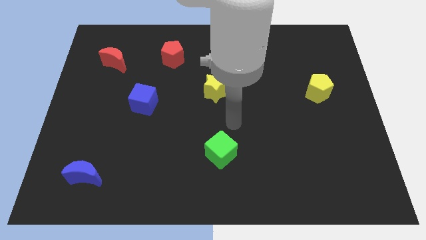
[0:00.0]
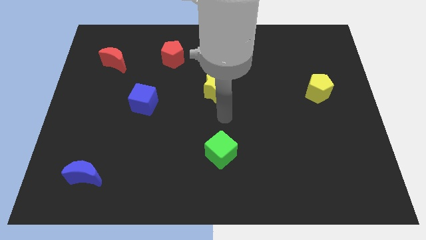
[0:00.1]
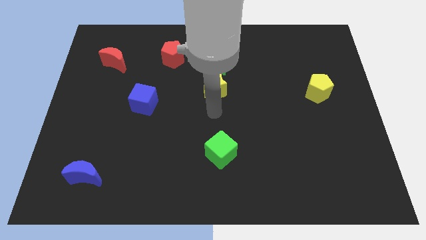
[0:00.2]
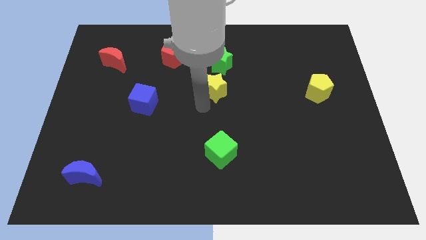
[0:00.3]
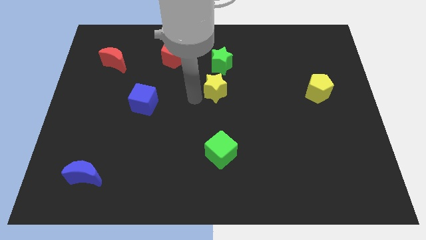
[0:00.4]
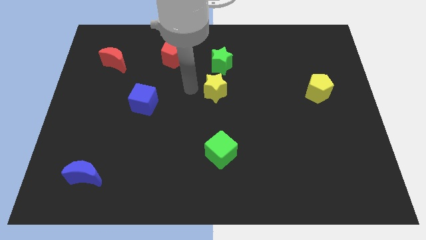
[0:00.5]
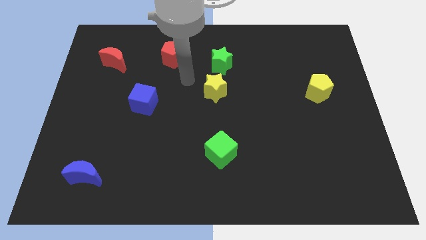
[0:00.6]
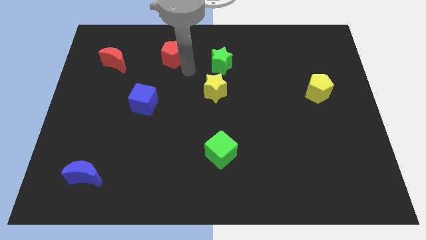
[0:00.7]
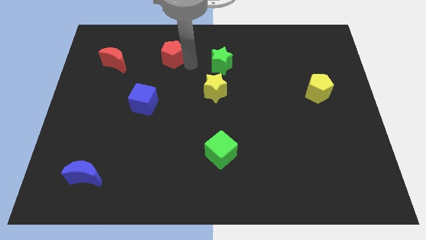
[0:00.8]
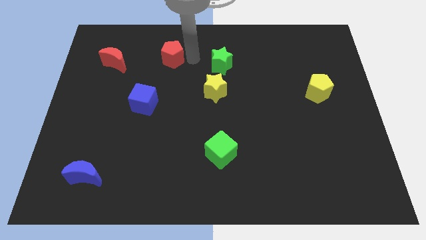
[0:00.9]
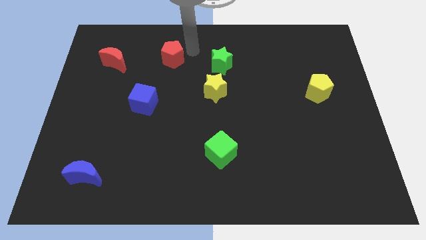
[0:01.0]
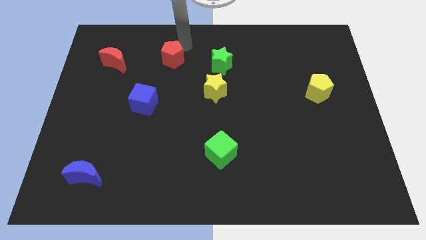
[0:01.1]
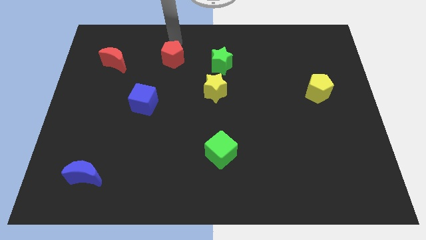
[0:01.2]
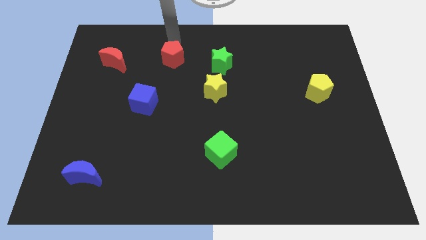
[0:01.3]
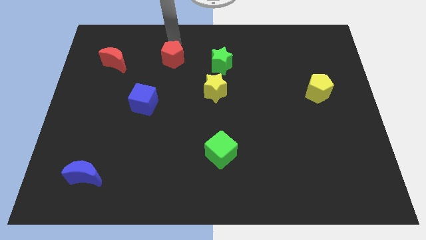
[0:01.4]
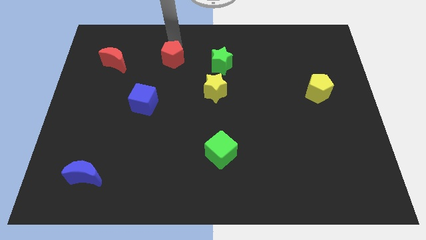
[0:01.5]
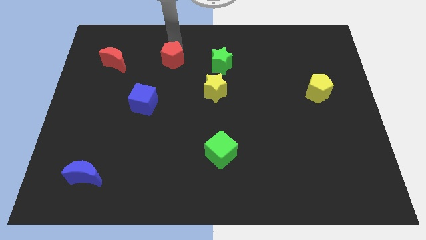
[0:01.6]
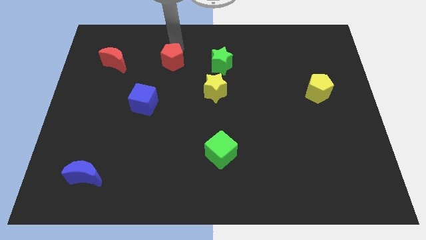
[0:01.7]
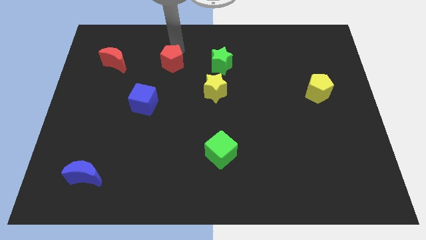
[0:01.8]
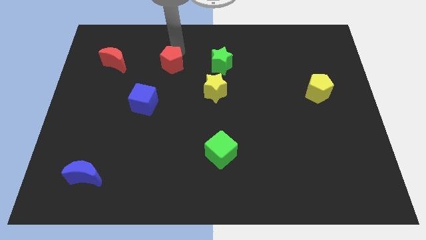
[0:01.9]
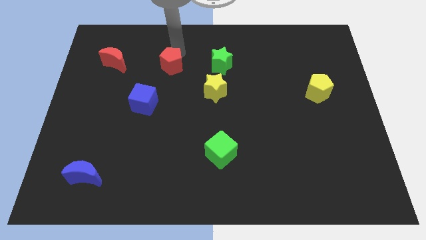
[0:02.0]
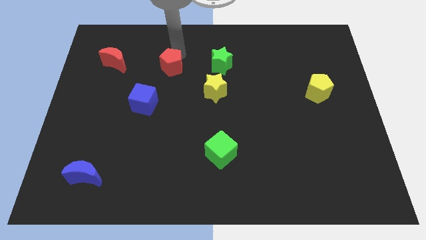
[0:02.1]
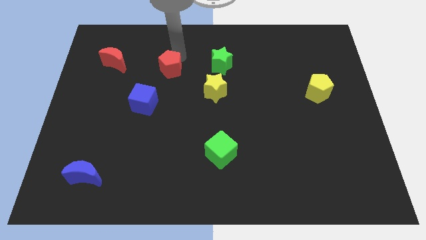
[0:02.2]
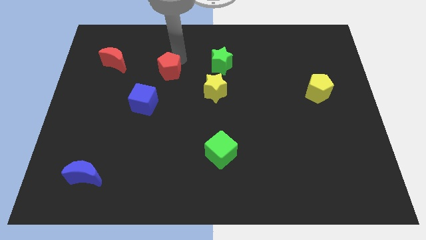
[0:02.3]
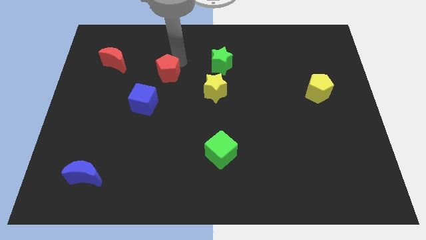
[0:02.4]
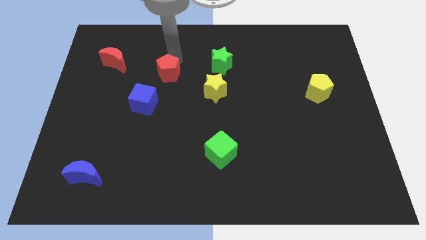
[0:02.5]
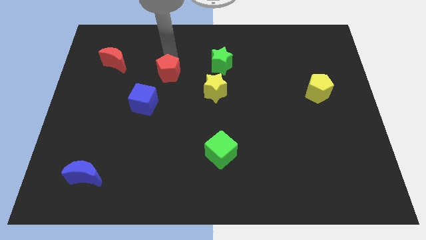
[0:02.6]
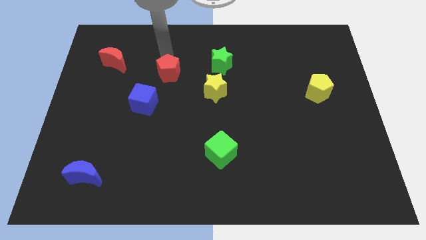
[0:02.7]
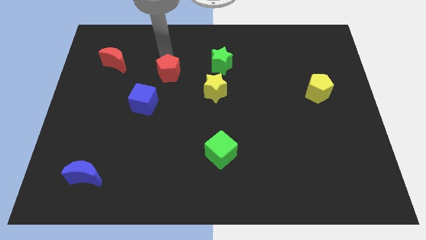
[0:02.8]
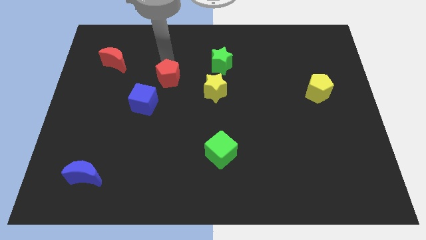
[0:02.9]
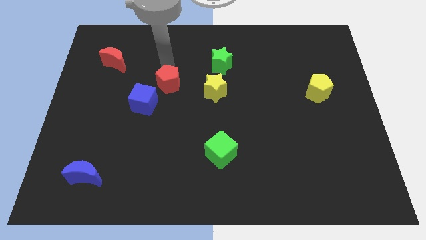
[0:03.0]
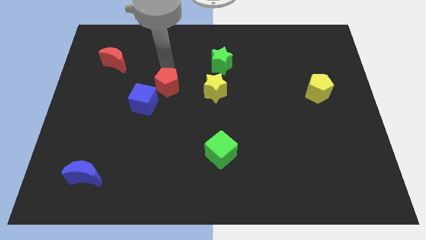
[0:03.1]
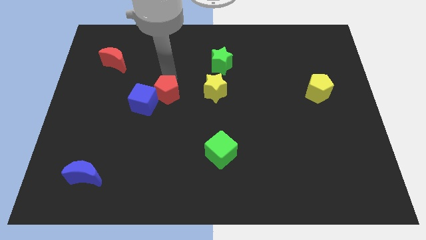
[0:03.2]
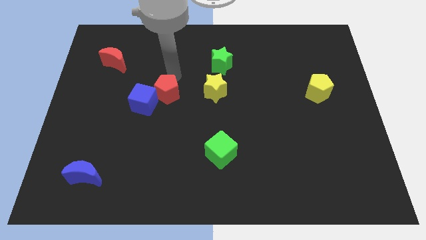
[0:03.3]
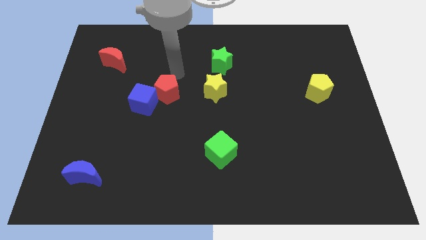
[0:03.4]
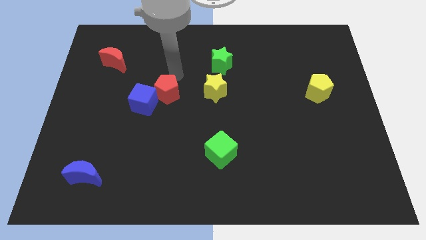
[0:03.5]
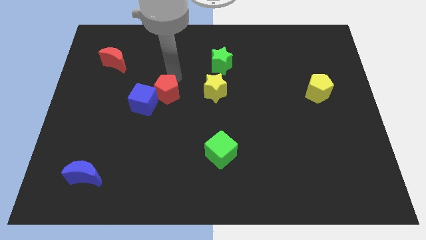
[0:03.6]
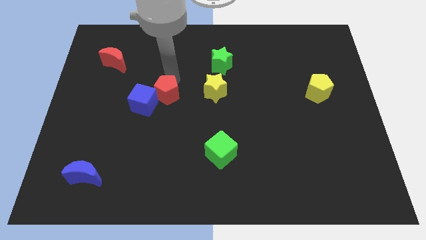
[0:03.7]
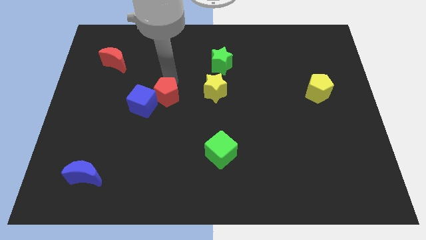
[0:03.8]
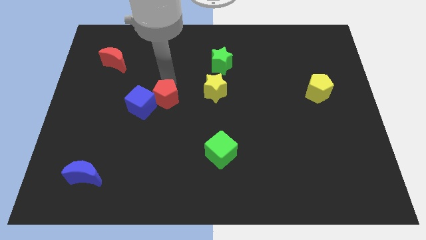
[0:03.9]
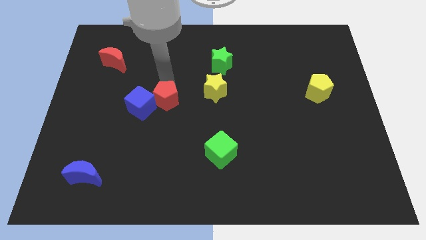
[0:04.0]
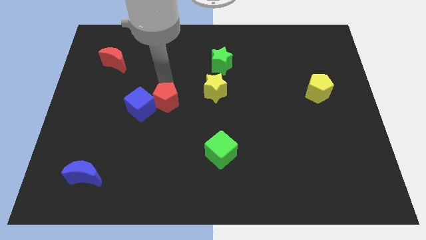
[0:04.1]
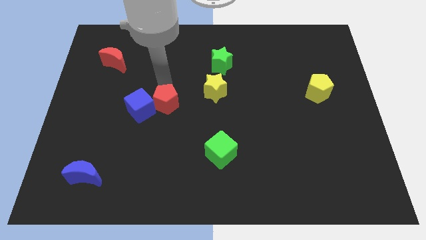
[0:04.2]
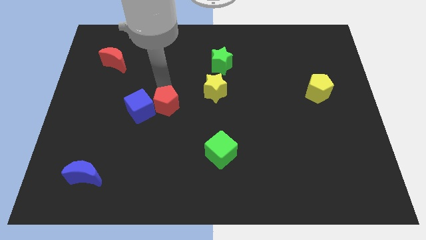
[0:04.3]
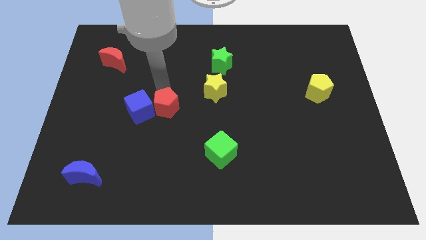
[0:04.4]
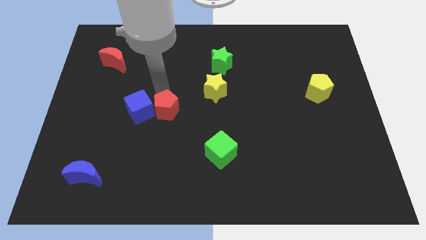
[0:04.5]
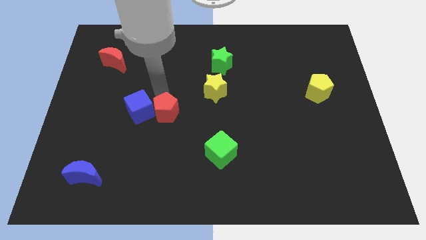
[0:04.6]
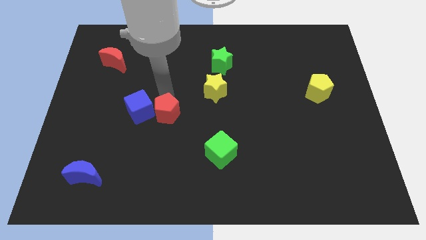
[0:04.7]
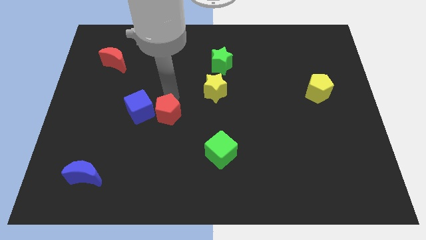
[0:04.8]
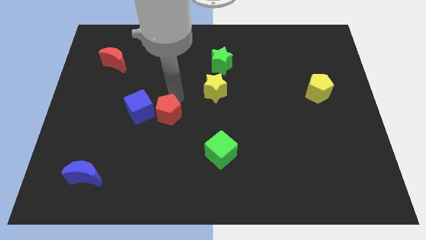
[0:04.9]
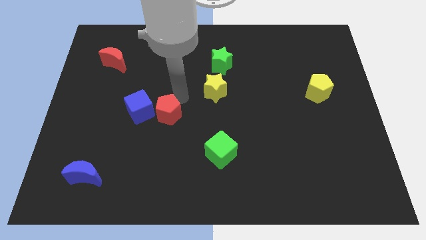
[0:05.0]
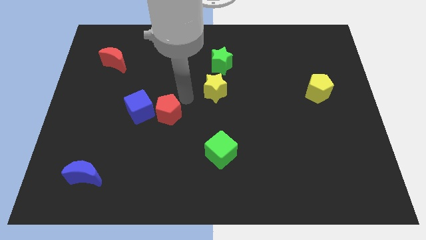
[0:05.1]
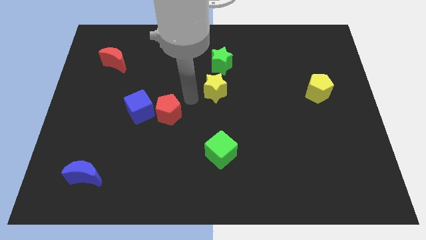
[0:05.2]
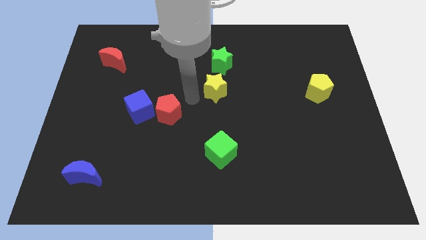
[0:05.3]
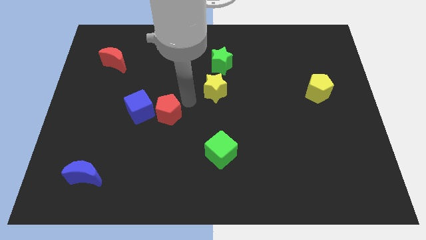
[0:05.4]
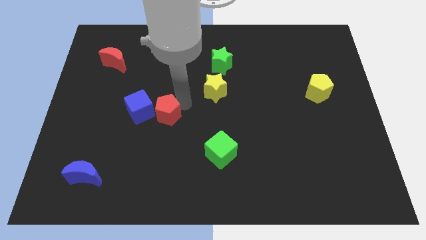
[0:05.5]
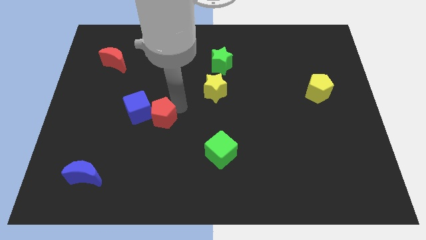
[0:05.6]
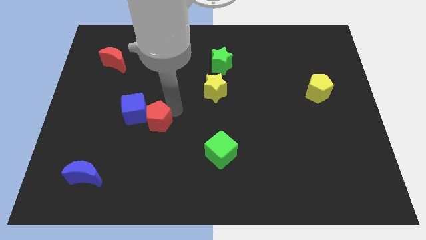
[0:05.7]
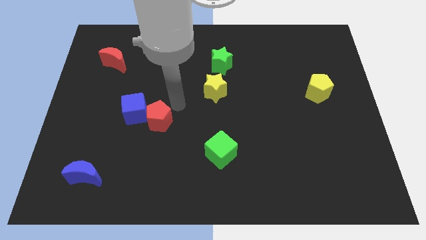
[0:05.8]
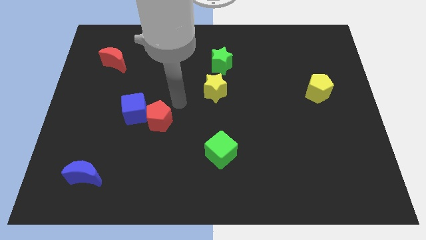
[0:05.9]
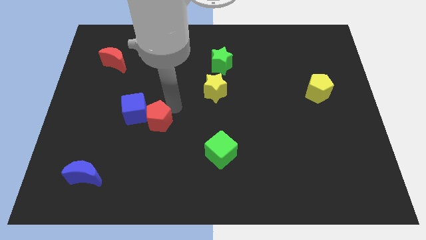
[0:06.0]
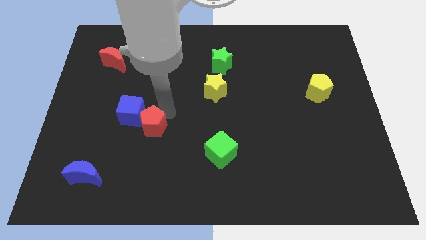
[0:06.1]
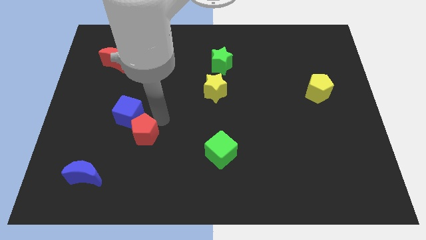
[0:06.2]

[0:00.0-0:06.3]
slide the red pentagon to the bottom of the blue cube

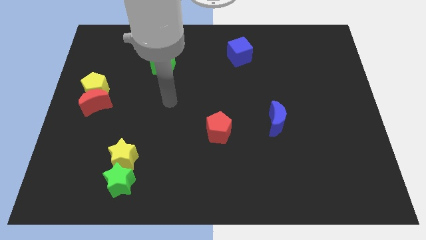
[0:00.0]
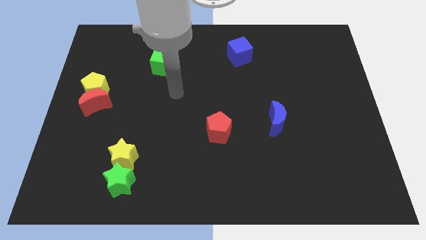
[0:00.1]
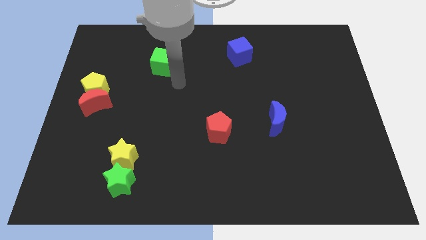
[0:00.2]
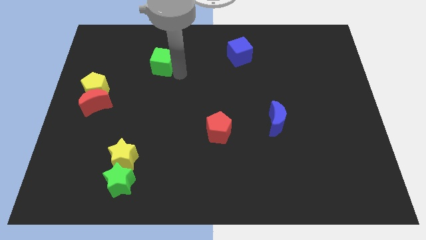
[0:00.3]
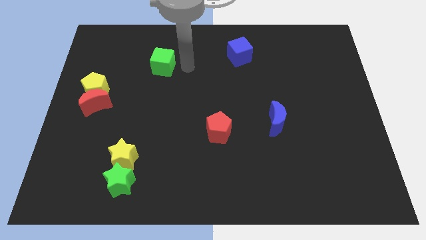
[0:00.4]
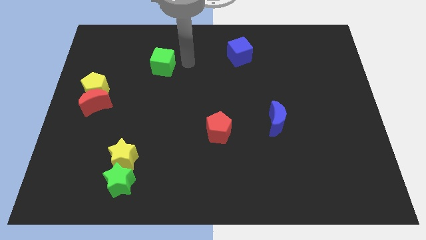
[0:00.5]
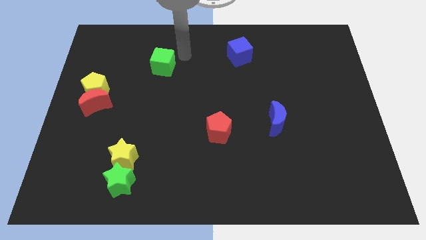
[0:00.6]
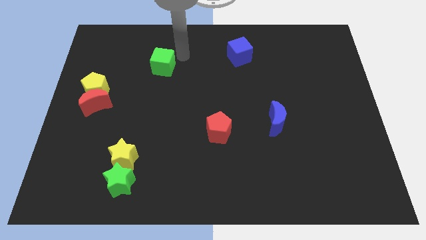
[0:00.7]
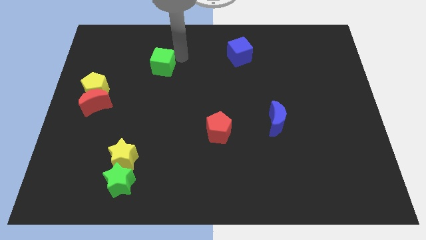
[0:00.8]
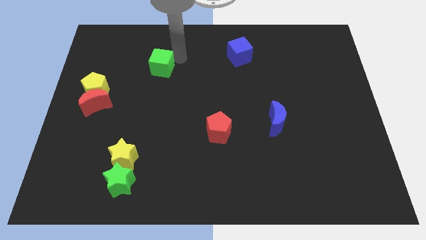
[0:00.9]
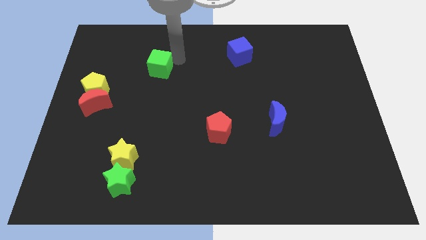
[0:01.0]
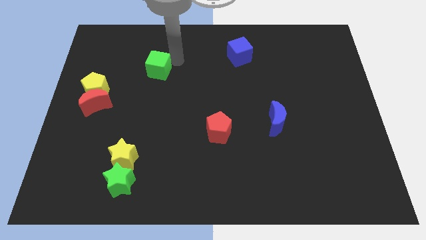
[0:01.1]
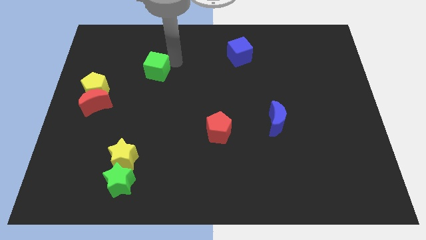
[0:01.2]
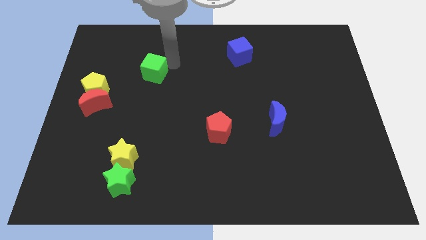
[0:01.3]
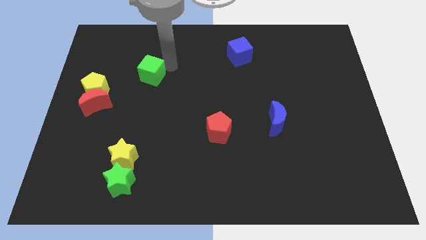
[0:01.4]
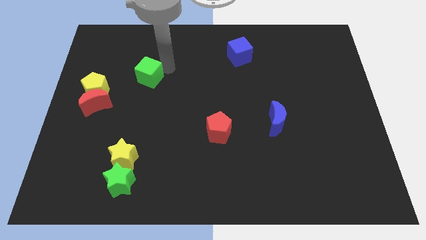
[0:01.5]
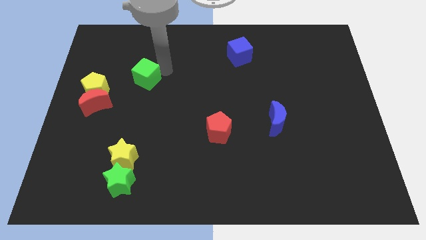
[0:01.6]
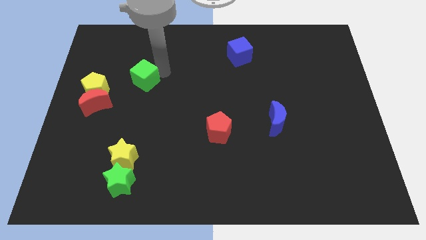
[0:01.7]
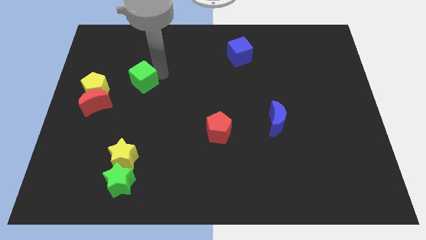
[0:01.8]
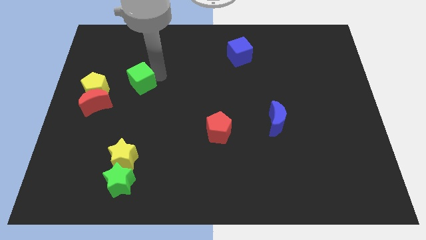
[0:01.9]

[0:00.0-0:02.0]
slide the green cube diagonally up and to the right of the red moon
